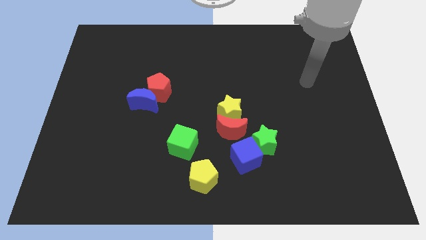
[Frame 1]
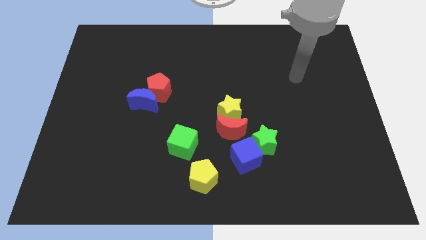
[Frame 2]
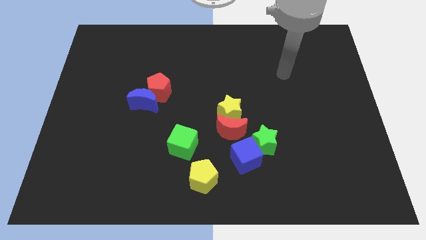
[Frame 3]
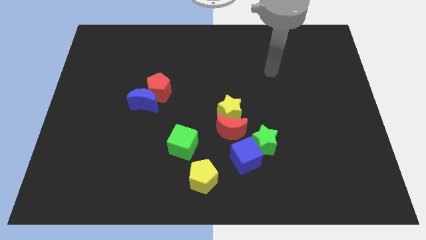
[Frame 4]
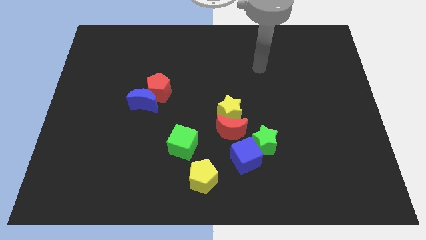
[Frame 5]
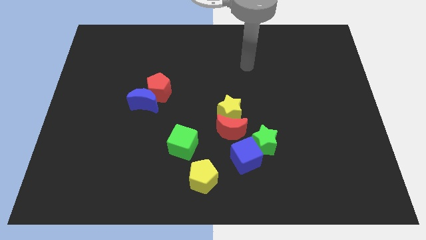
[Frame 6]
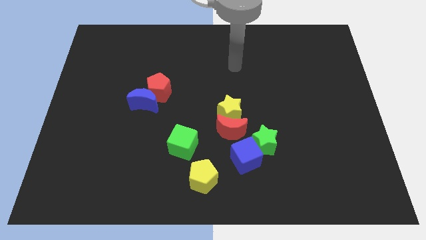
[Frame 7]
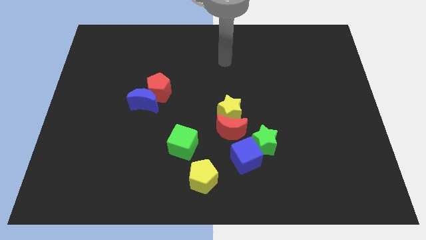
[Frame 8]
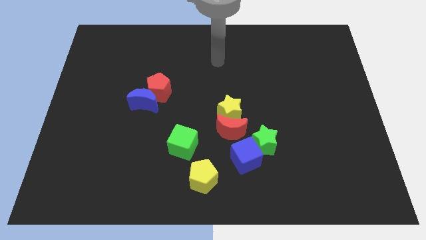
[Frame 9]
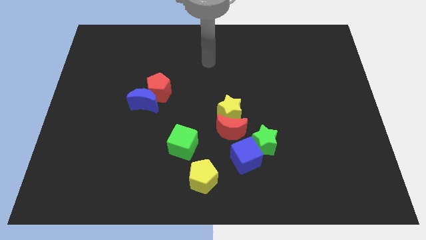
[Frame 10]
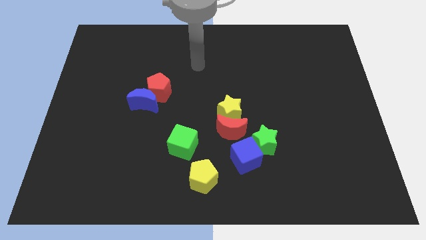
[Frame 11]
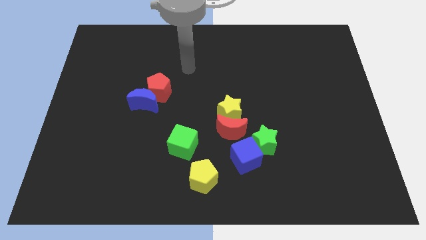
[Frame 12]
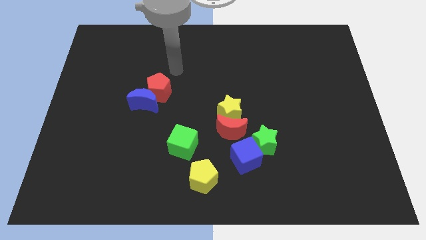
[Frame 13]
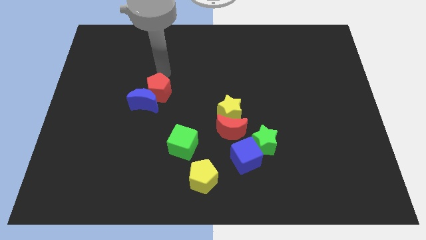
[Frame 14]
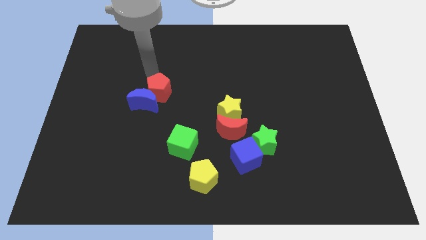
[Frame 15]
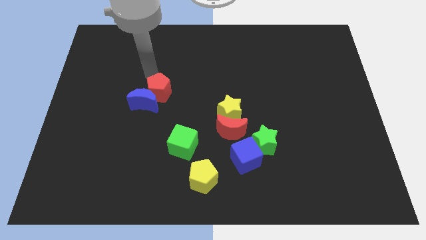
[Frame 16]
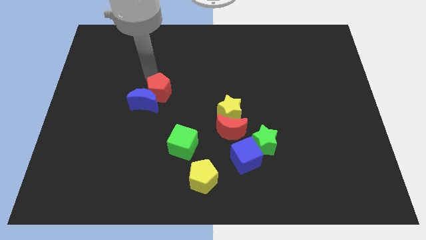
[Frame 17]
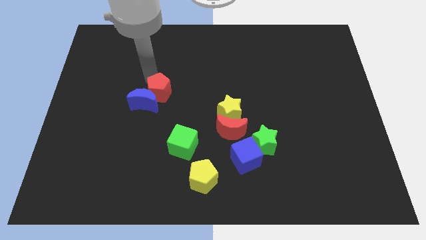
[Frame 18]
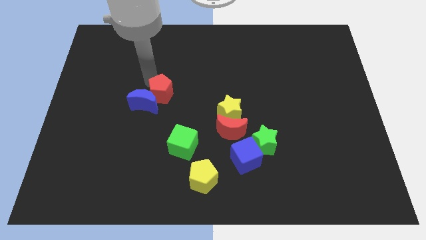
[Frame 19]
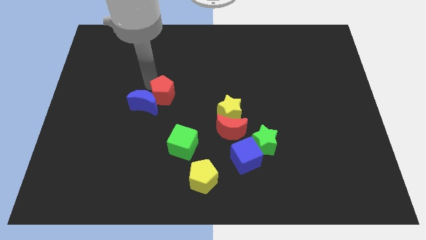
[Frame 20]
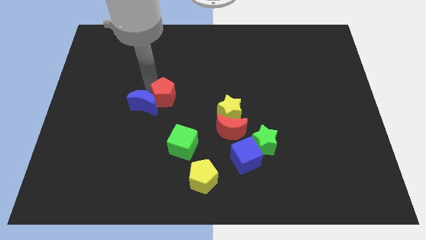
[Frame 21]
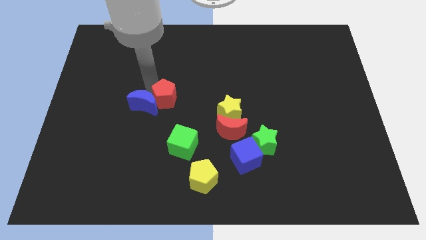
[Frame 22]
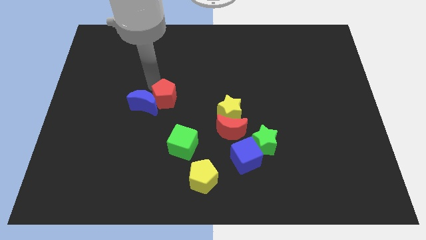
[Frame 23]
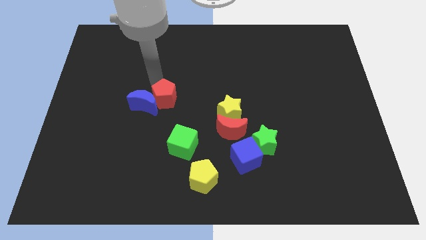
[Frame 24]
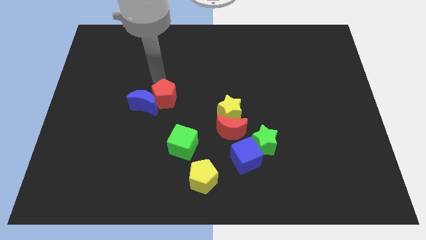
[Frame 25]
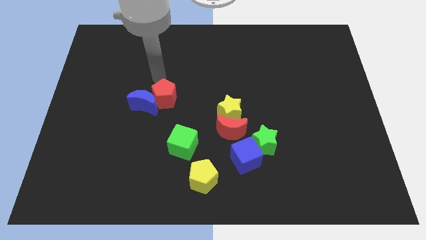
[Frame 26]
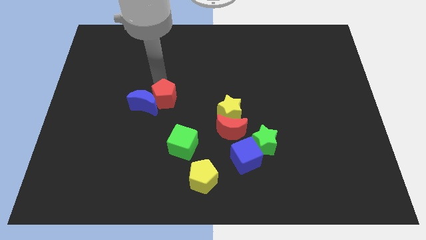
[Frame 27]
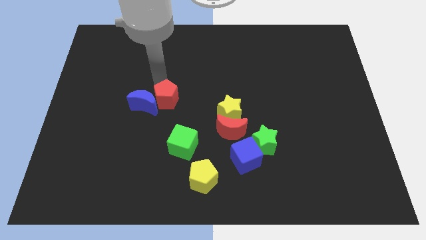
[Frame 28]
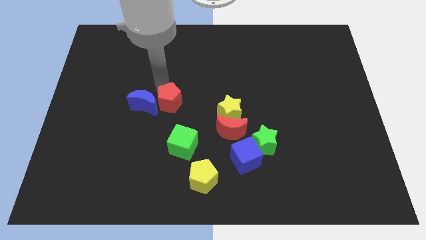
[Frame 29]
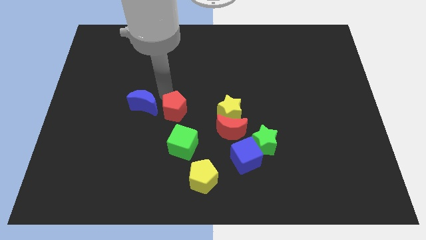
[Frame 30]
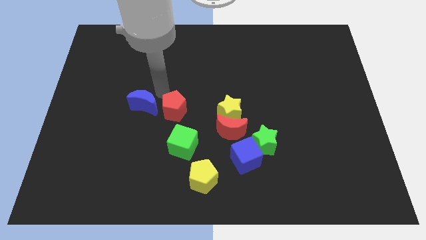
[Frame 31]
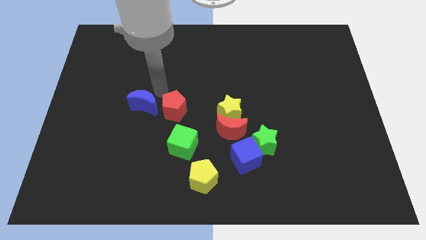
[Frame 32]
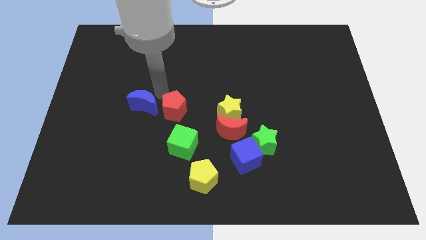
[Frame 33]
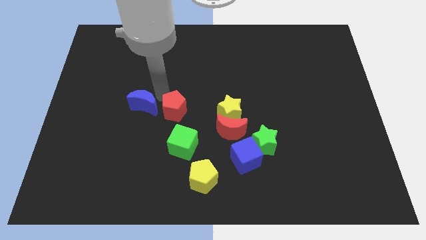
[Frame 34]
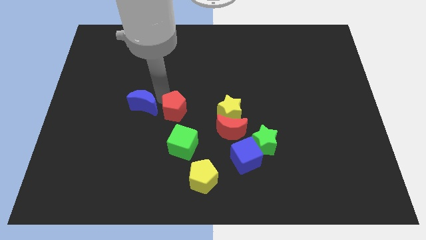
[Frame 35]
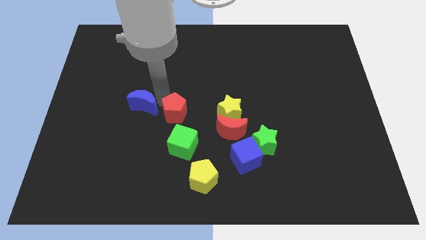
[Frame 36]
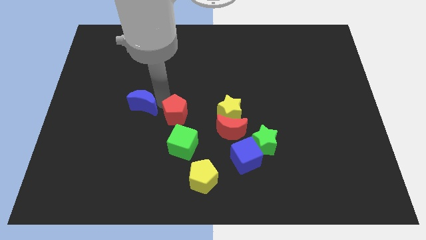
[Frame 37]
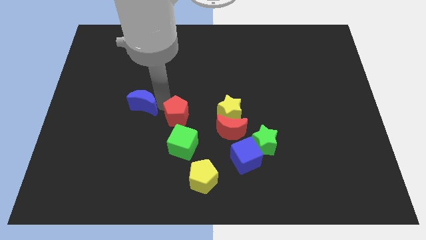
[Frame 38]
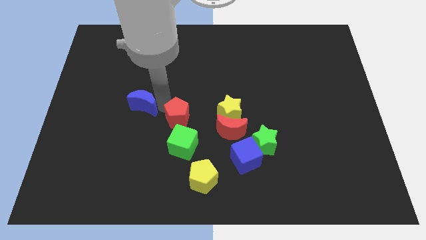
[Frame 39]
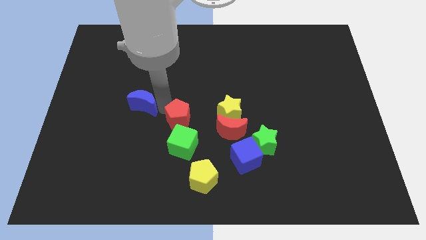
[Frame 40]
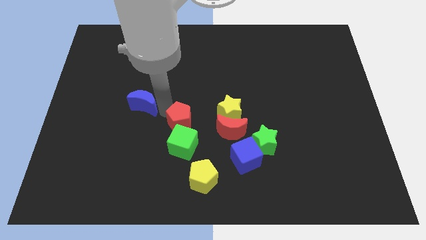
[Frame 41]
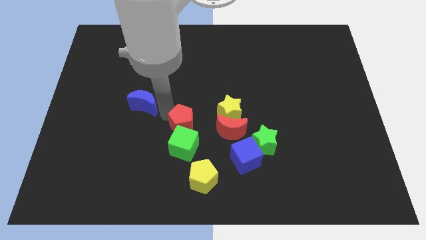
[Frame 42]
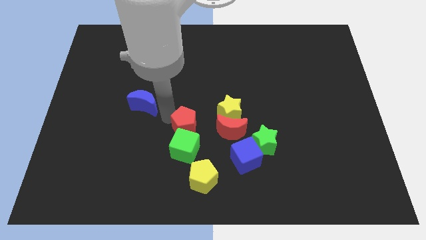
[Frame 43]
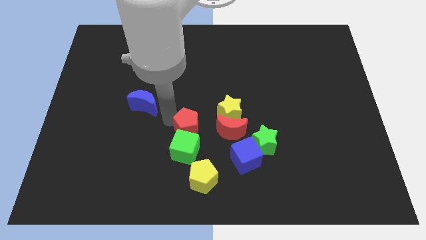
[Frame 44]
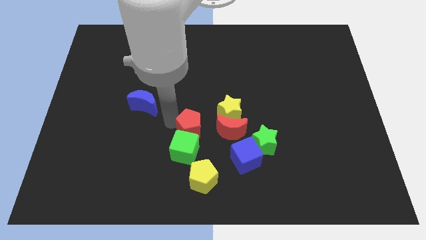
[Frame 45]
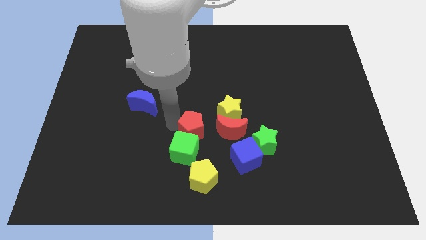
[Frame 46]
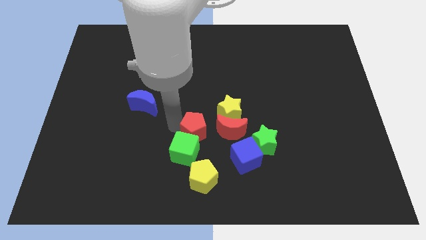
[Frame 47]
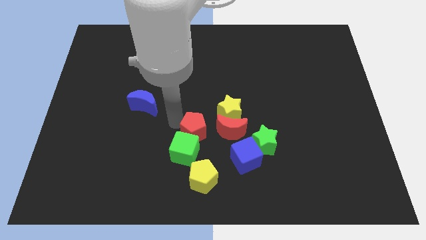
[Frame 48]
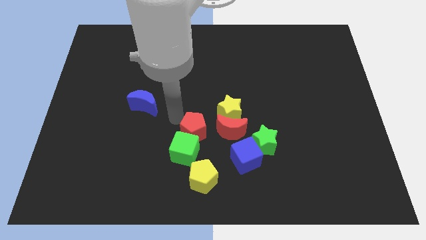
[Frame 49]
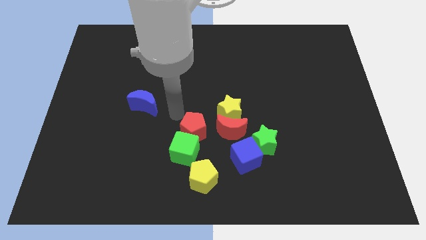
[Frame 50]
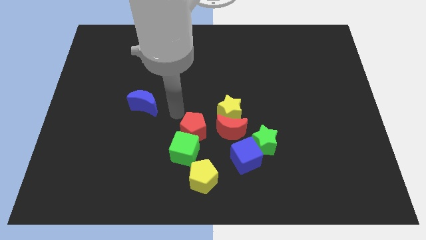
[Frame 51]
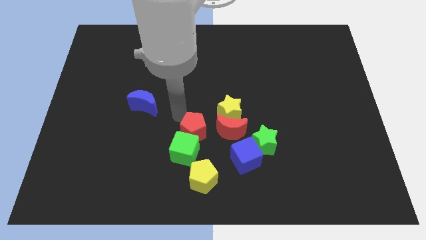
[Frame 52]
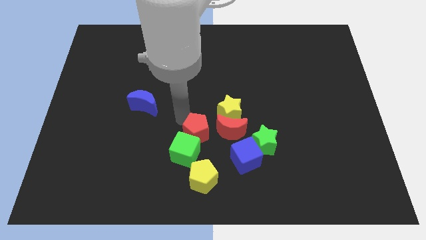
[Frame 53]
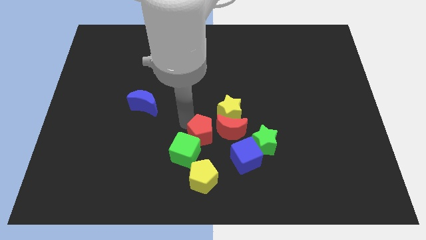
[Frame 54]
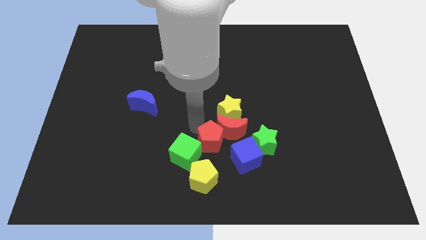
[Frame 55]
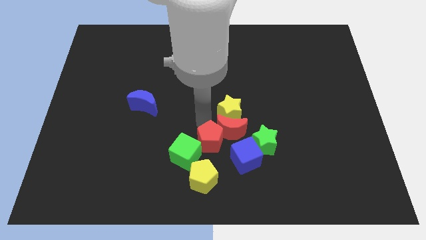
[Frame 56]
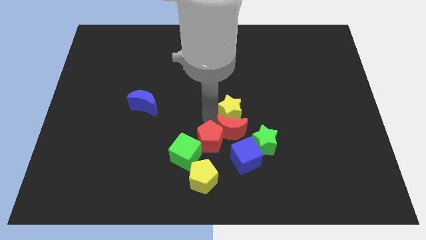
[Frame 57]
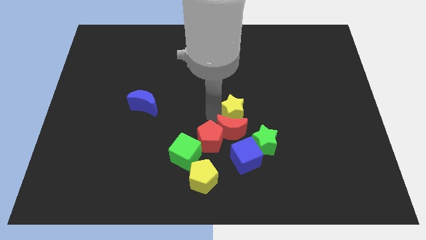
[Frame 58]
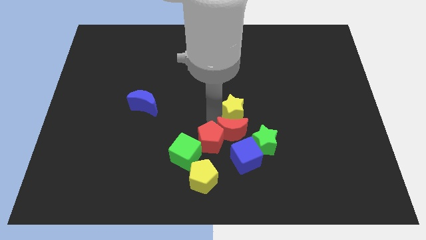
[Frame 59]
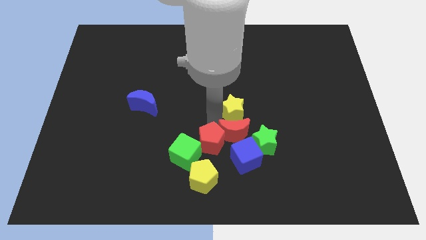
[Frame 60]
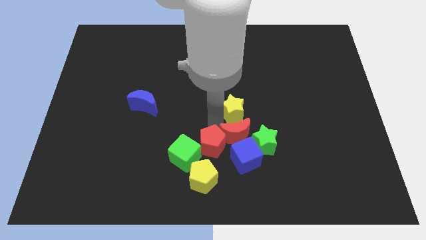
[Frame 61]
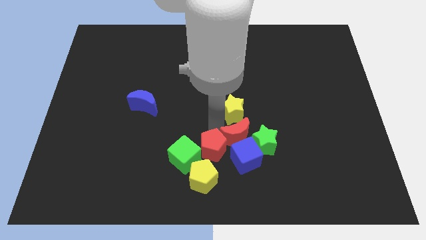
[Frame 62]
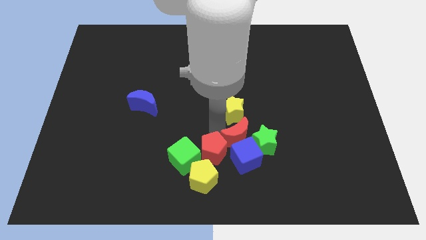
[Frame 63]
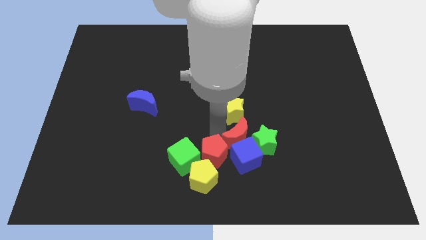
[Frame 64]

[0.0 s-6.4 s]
push the red pentagon towards the yellow pentagon
